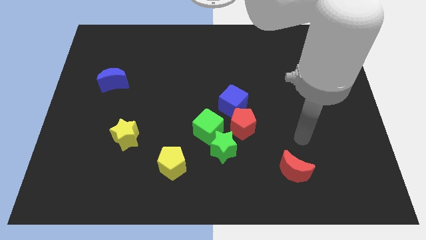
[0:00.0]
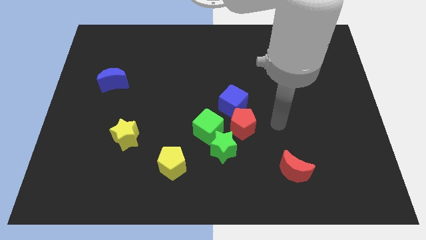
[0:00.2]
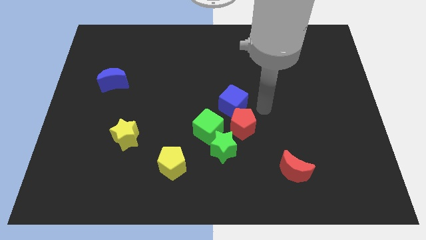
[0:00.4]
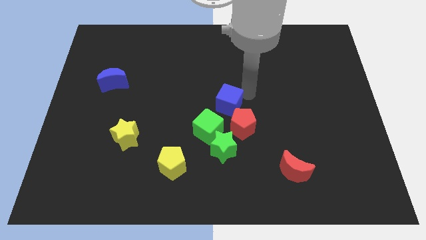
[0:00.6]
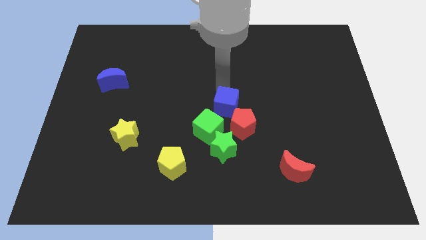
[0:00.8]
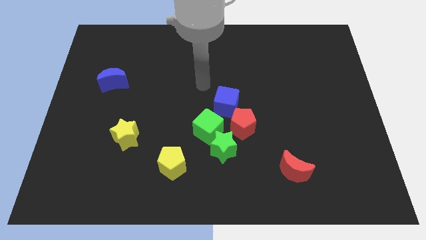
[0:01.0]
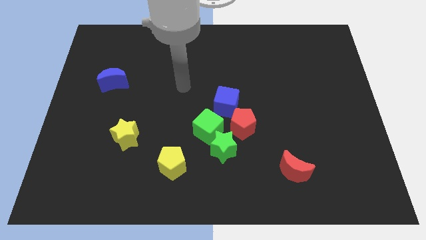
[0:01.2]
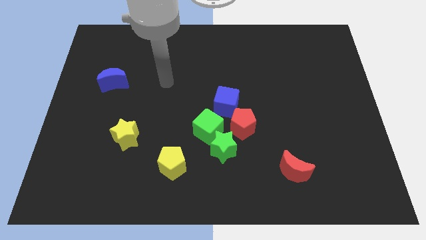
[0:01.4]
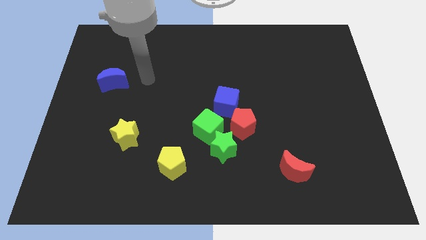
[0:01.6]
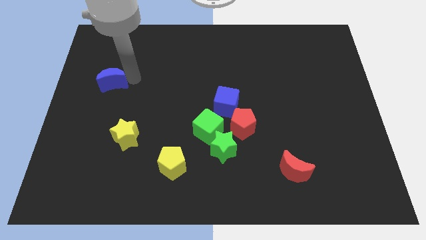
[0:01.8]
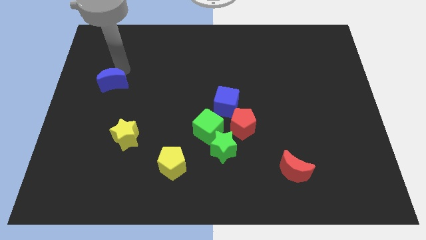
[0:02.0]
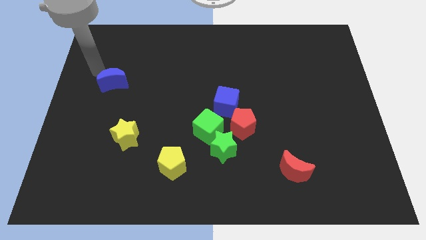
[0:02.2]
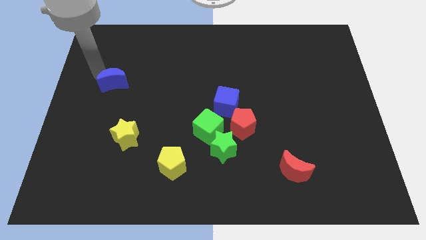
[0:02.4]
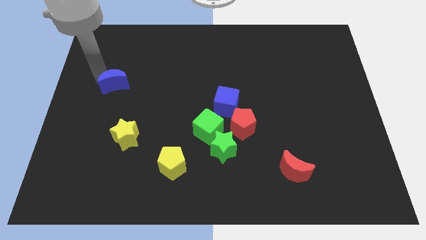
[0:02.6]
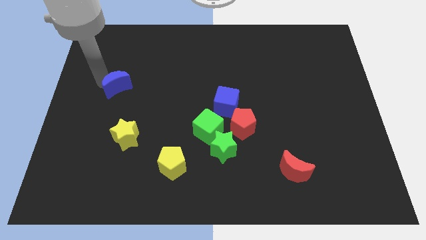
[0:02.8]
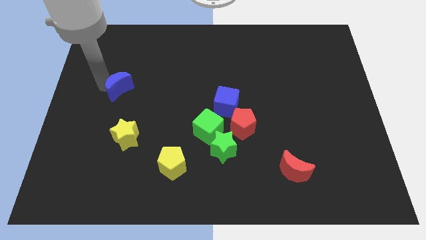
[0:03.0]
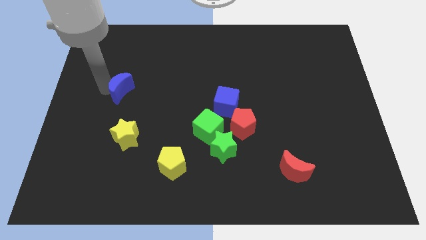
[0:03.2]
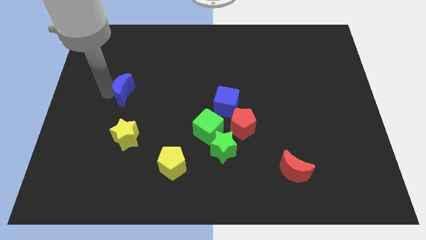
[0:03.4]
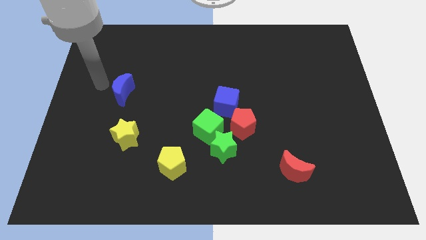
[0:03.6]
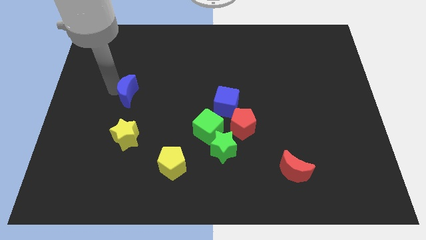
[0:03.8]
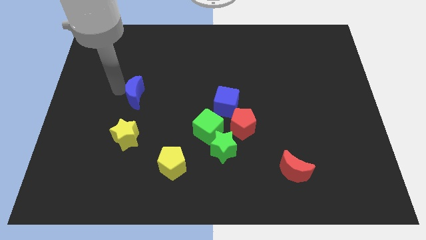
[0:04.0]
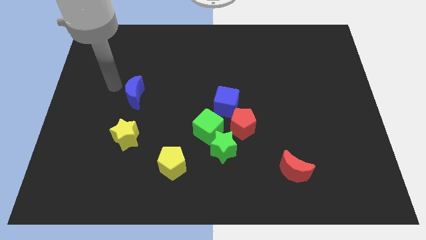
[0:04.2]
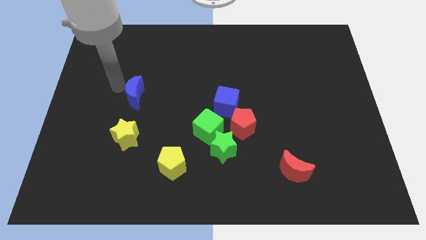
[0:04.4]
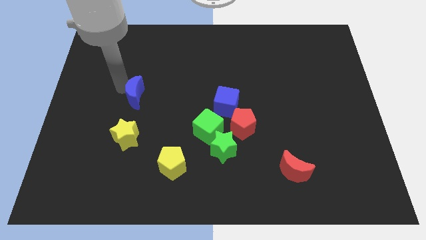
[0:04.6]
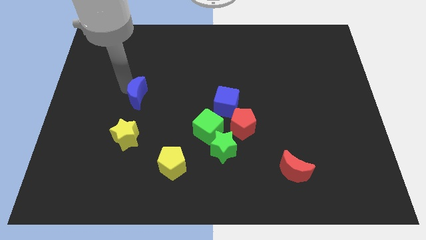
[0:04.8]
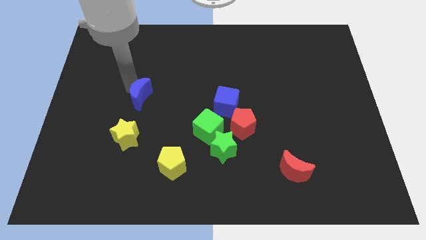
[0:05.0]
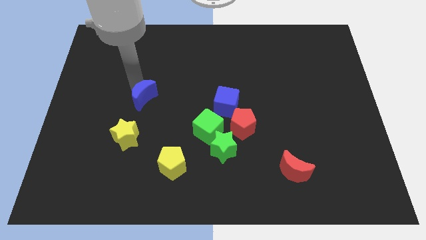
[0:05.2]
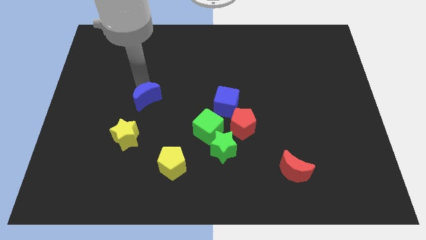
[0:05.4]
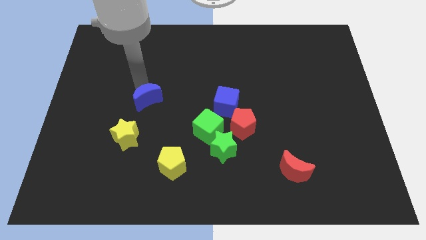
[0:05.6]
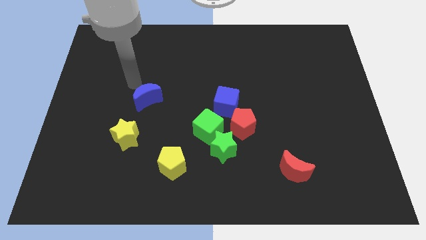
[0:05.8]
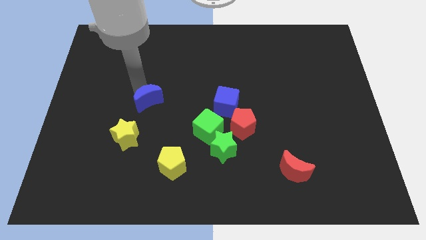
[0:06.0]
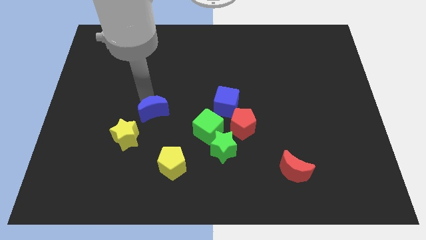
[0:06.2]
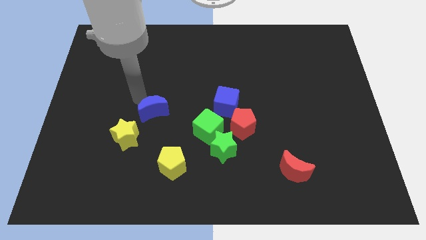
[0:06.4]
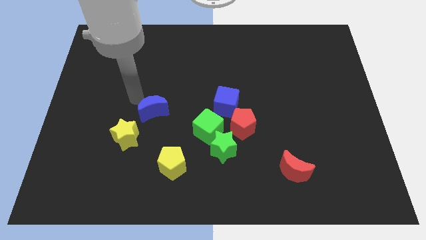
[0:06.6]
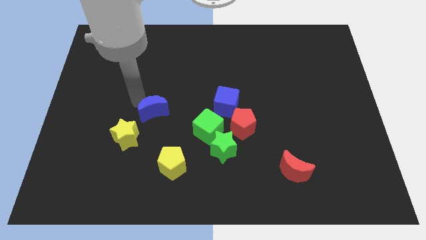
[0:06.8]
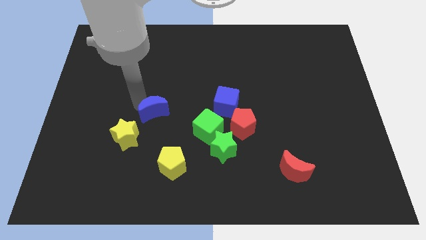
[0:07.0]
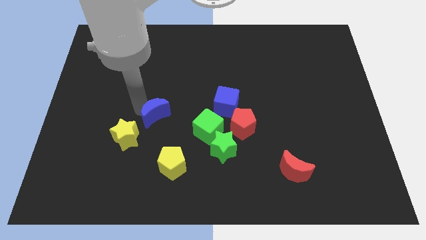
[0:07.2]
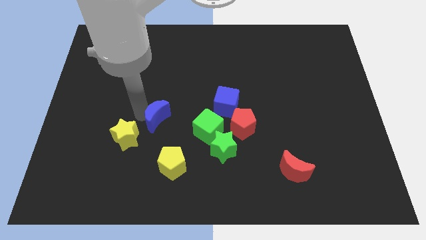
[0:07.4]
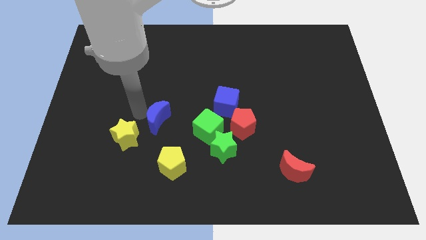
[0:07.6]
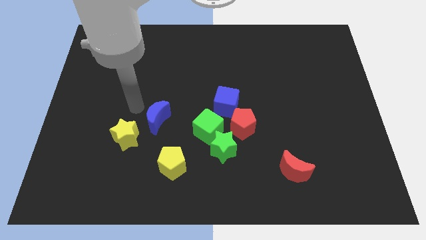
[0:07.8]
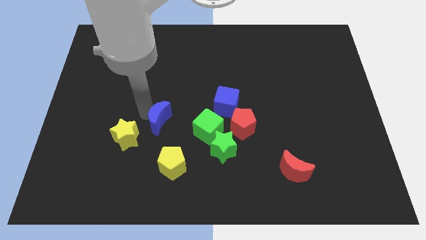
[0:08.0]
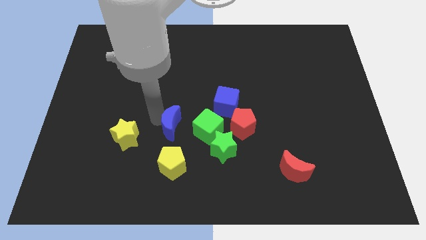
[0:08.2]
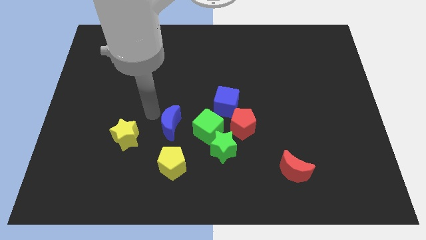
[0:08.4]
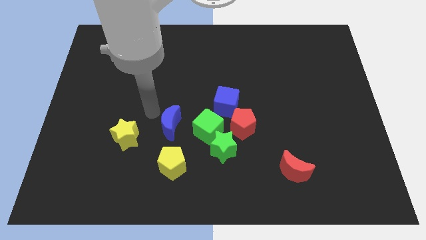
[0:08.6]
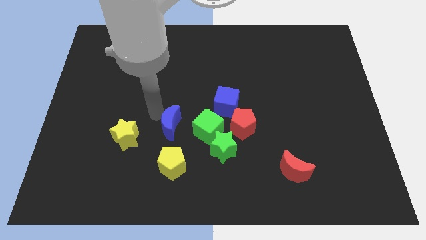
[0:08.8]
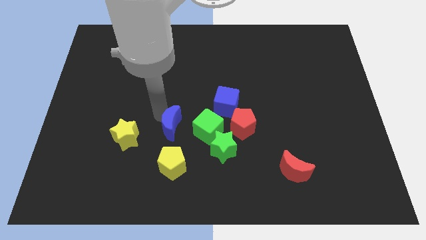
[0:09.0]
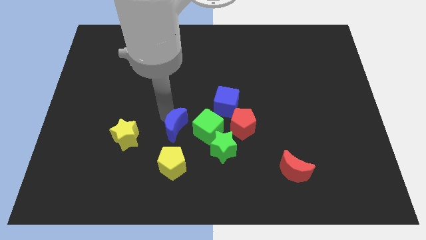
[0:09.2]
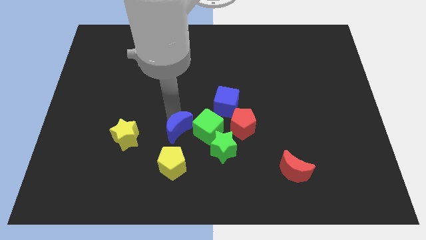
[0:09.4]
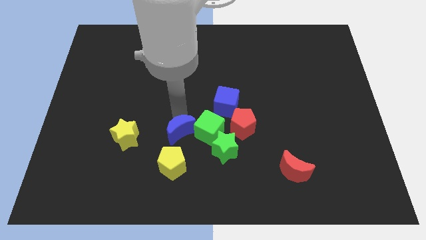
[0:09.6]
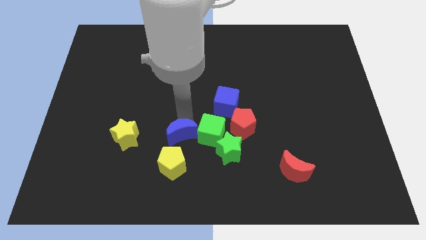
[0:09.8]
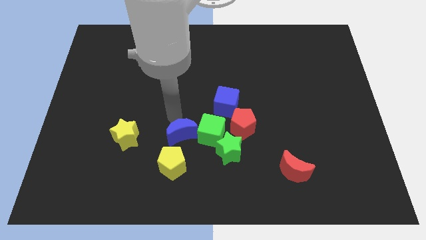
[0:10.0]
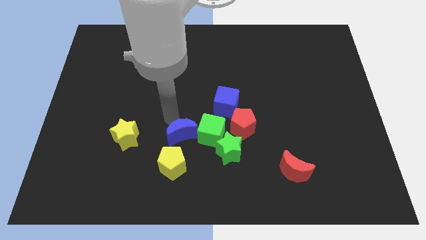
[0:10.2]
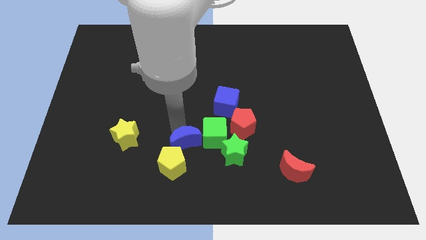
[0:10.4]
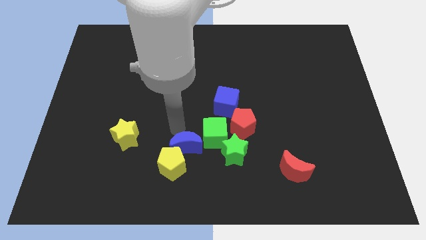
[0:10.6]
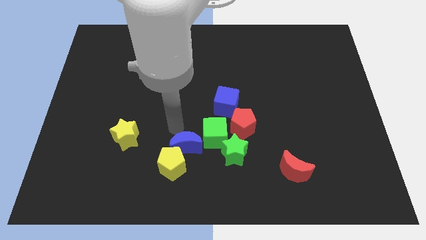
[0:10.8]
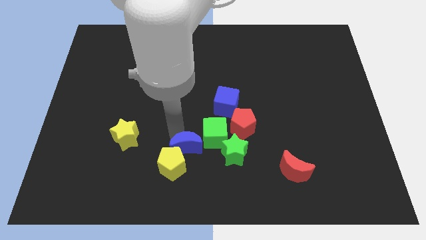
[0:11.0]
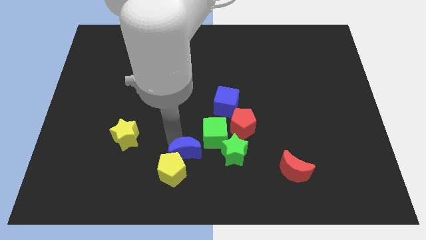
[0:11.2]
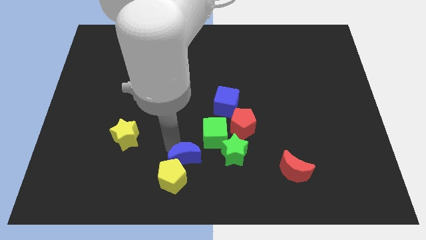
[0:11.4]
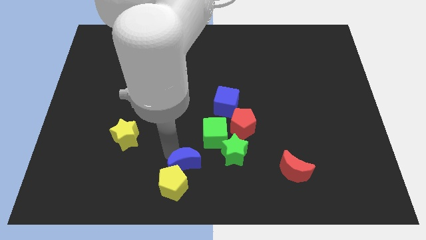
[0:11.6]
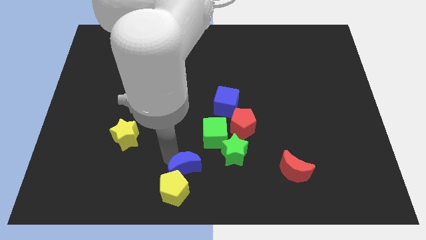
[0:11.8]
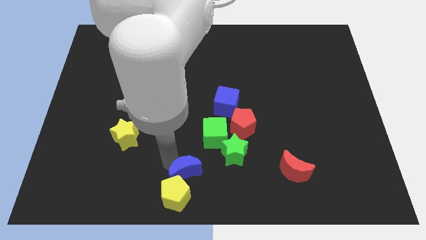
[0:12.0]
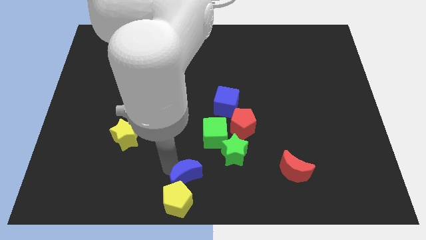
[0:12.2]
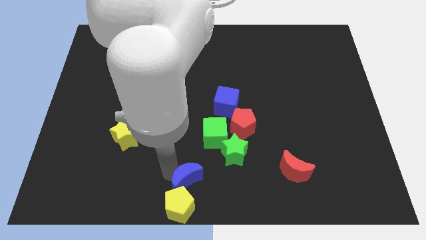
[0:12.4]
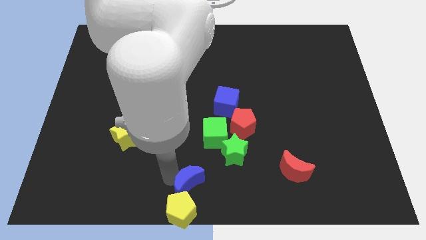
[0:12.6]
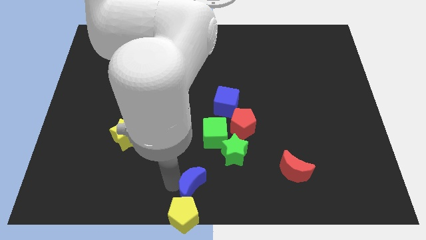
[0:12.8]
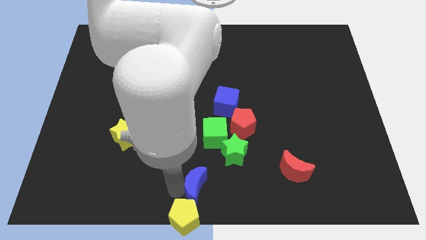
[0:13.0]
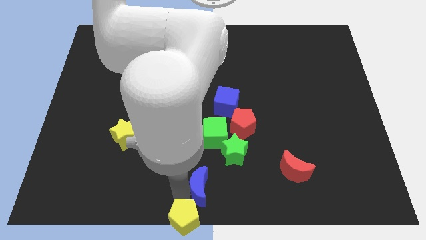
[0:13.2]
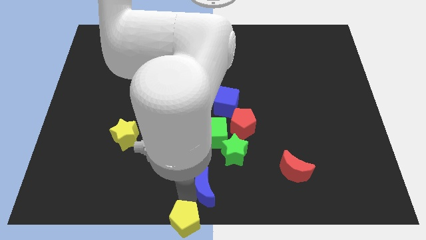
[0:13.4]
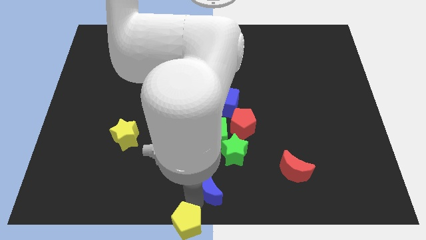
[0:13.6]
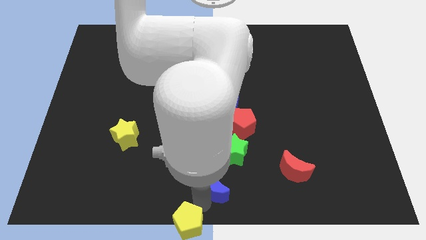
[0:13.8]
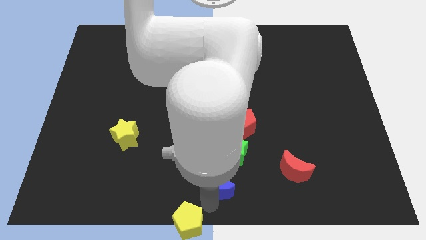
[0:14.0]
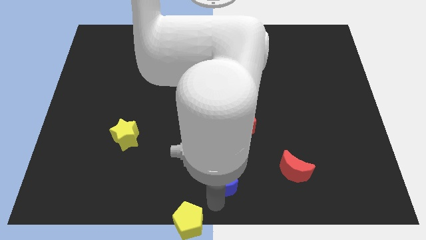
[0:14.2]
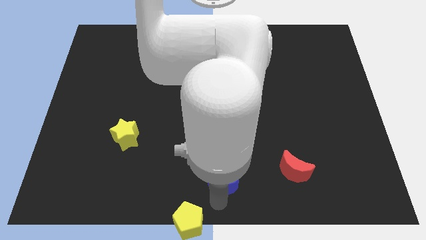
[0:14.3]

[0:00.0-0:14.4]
slide the blue moon just left of the red moon
